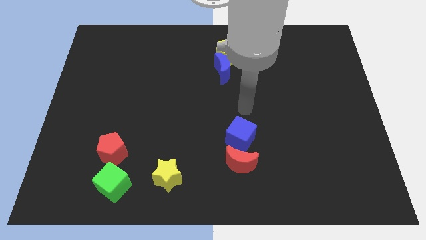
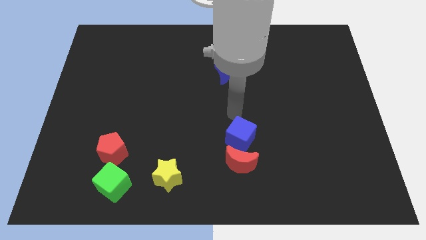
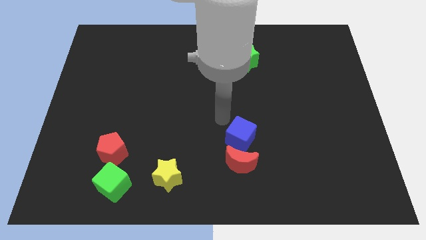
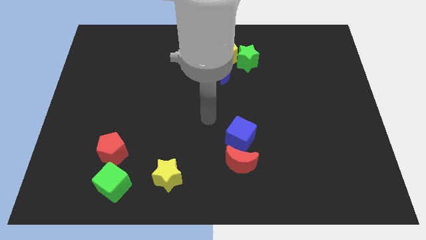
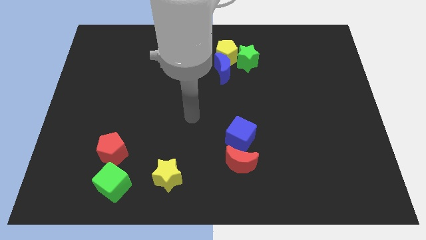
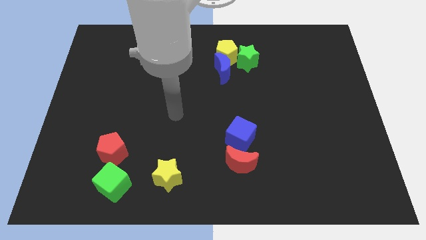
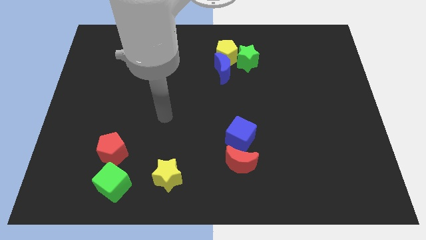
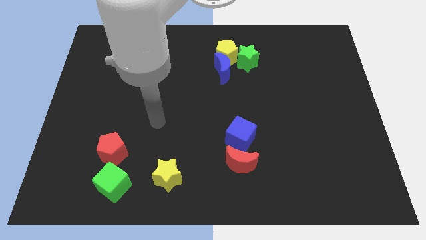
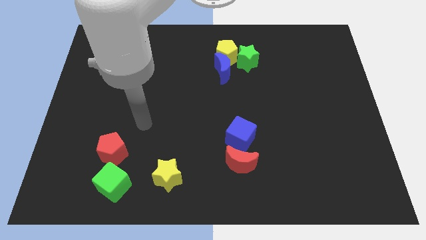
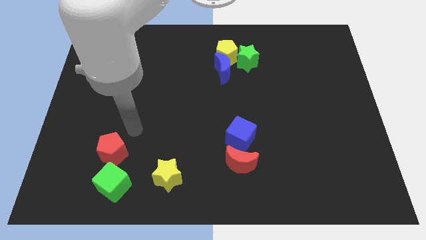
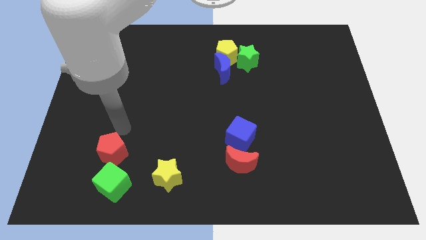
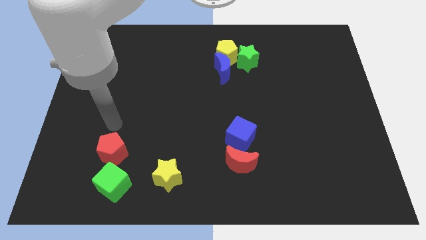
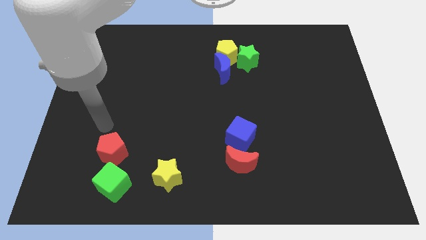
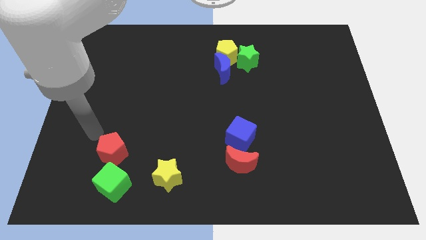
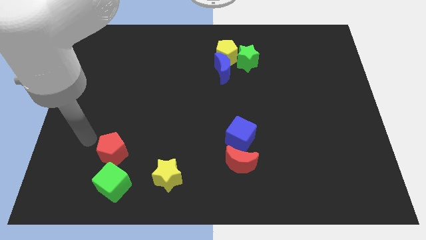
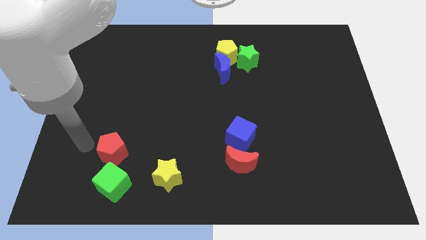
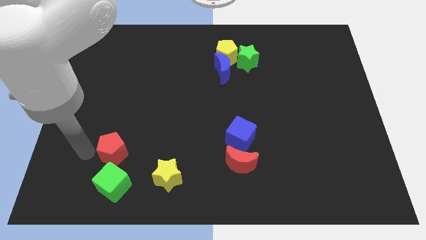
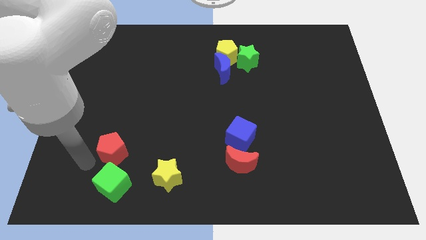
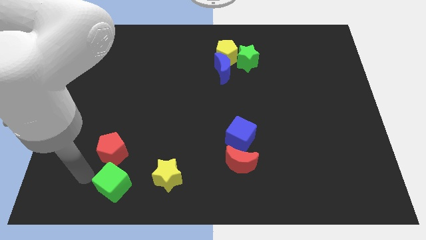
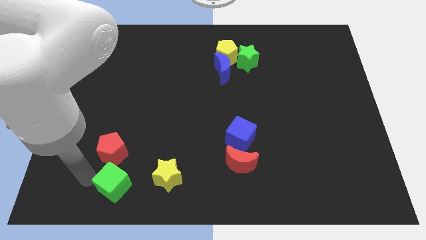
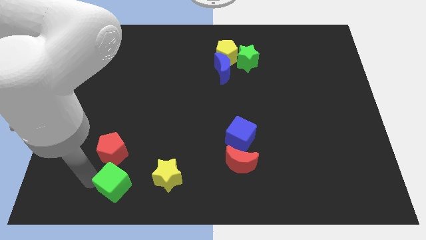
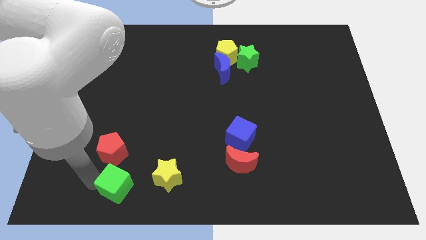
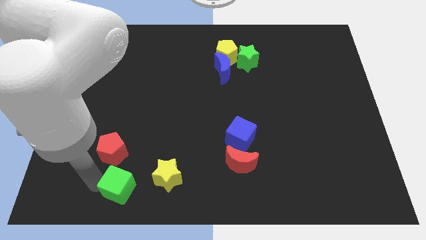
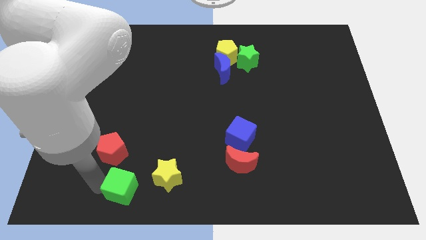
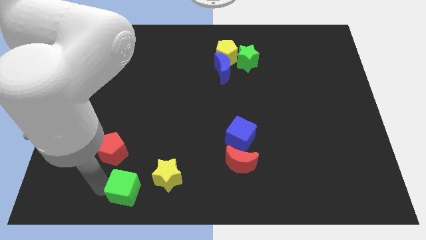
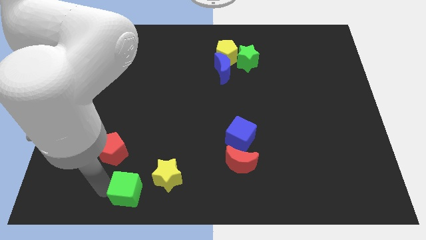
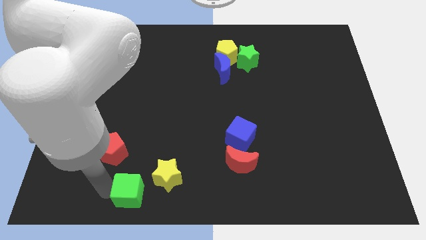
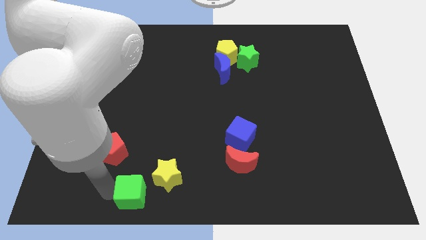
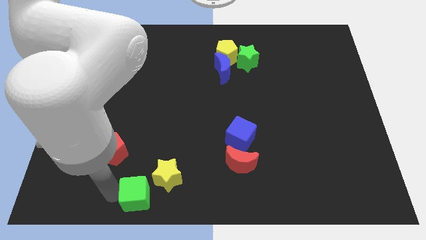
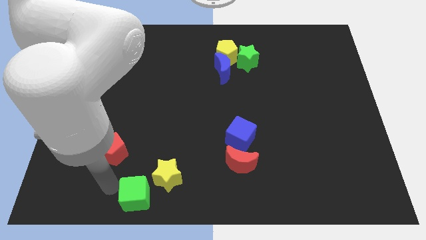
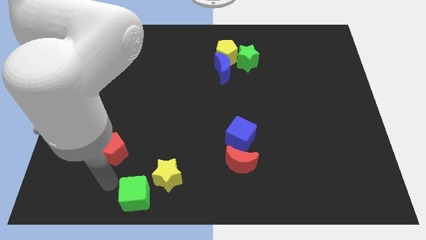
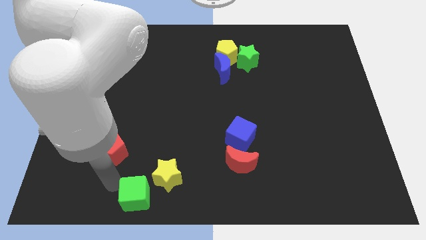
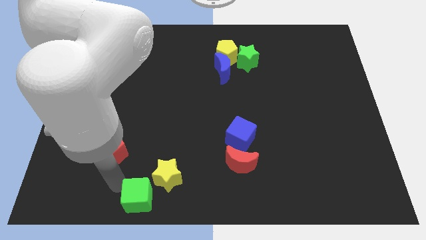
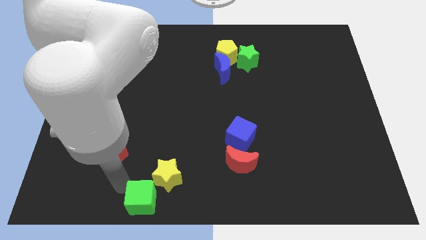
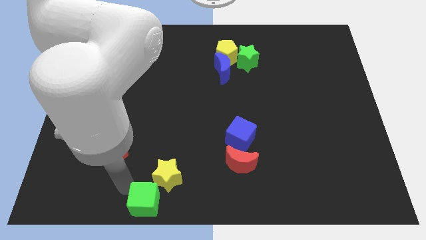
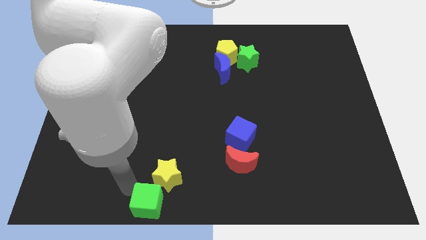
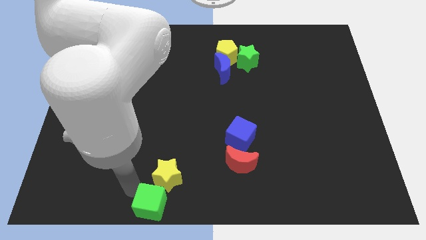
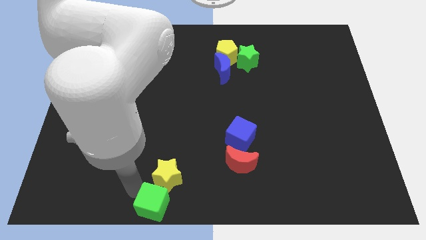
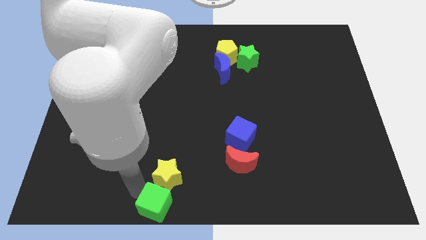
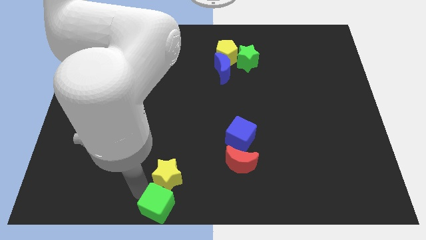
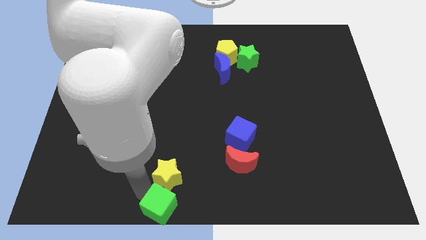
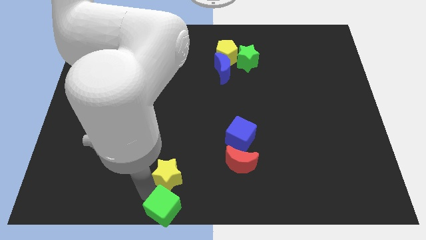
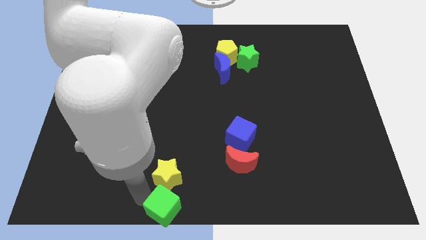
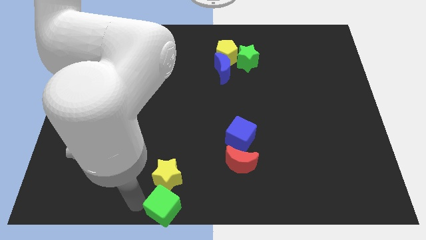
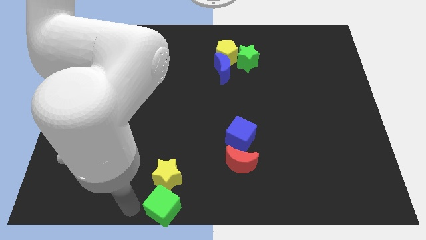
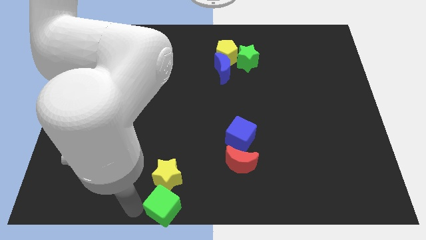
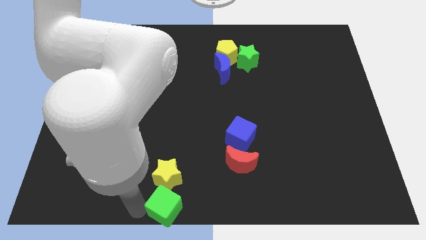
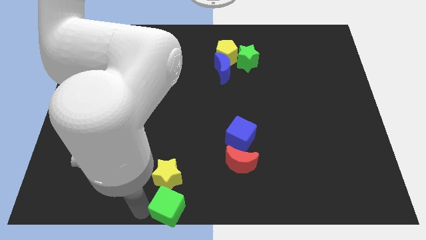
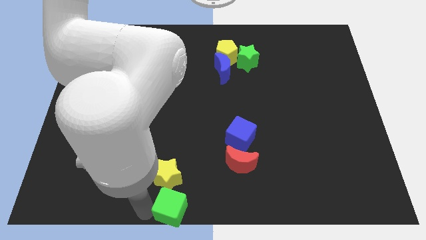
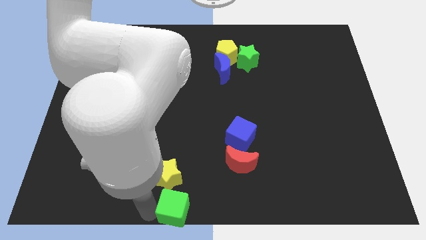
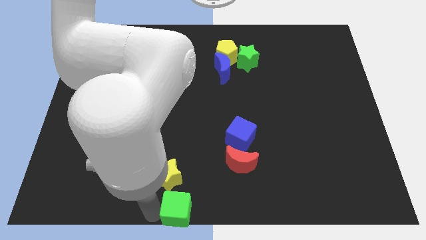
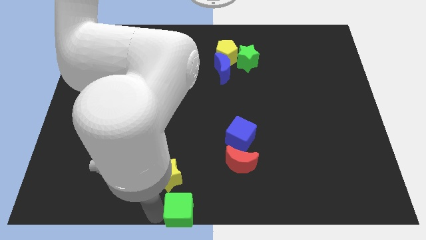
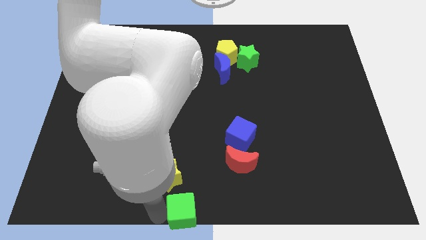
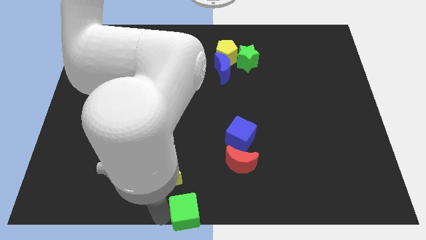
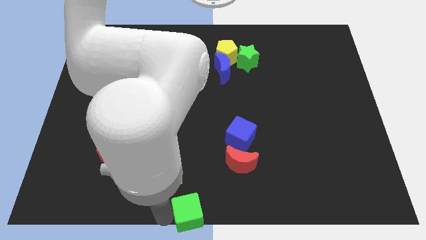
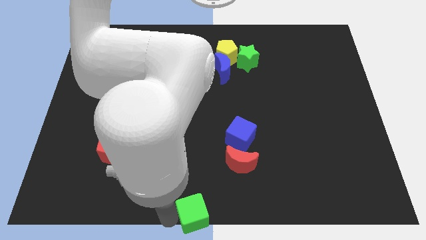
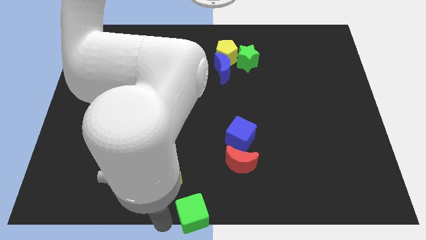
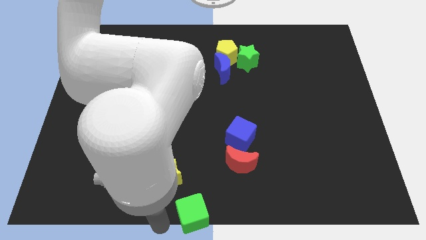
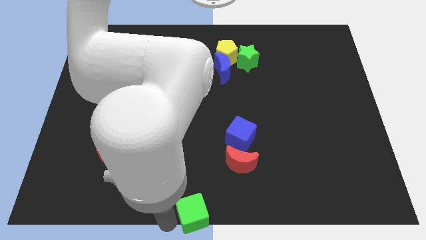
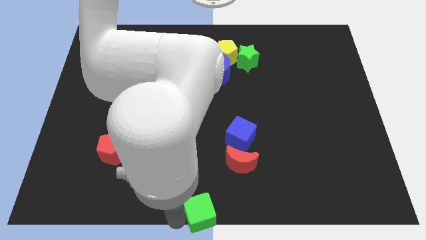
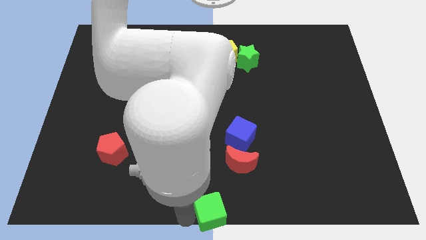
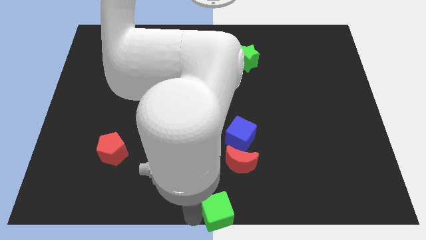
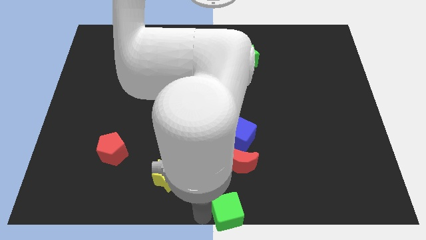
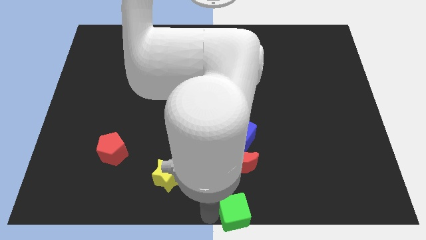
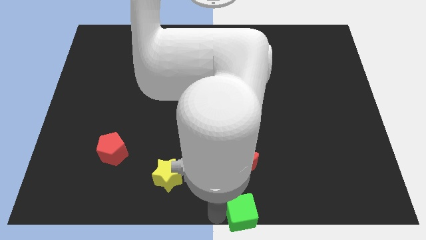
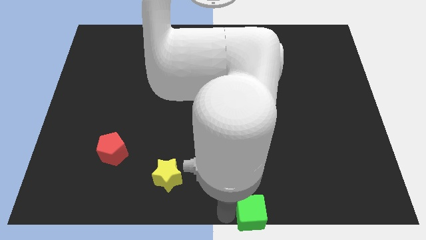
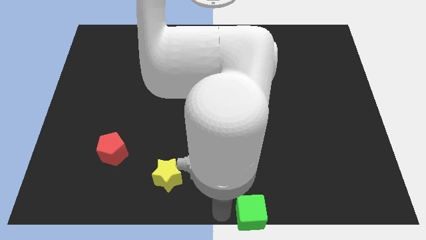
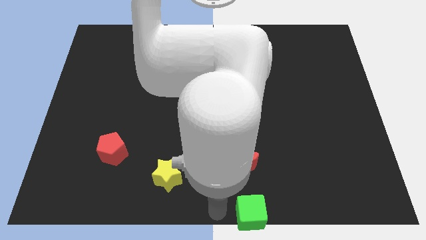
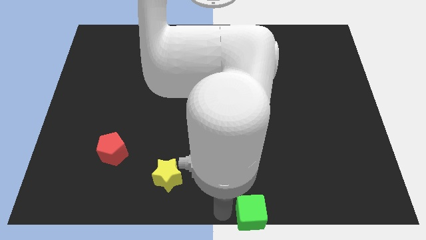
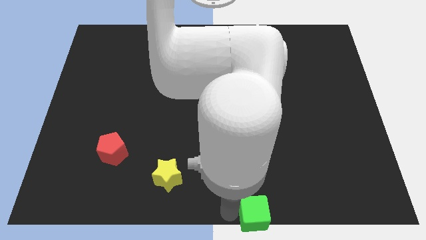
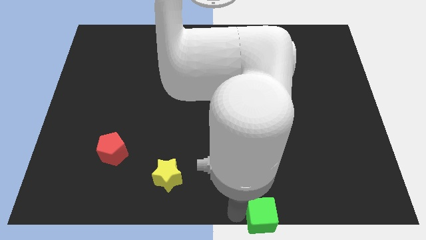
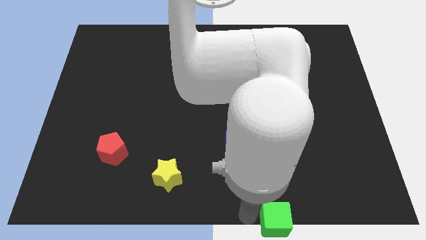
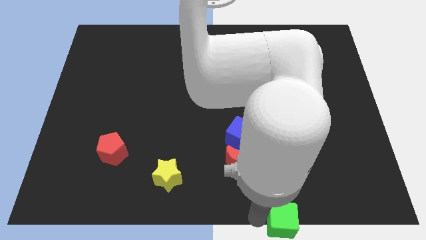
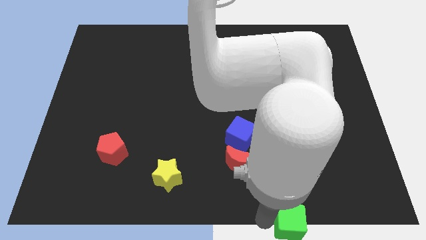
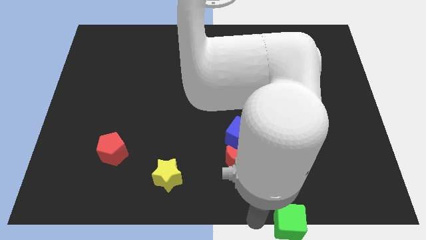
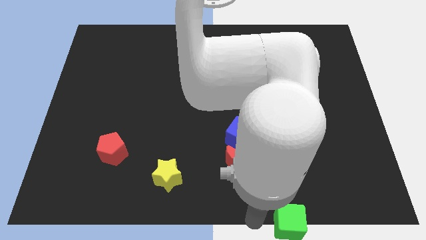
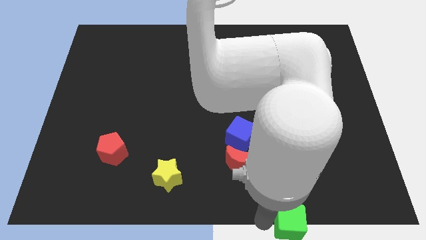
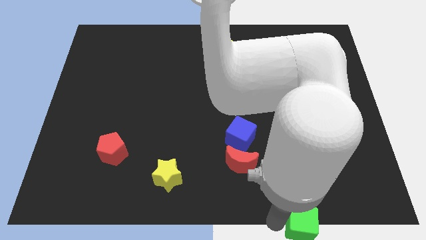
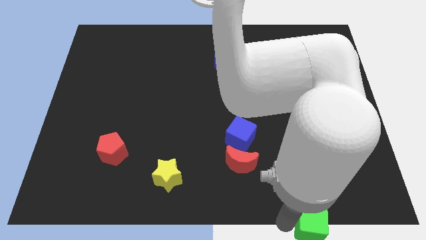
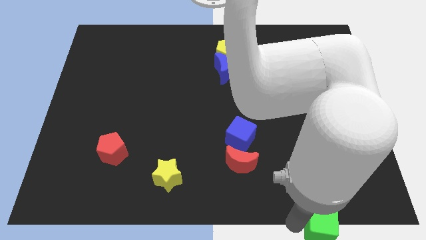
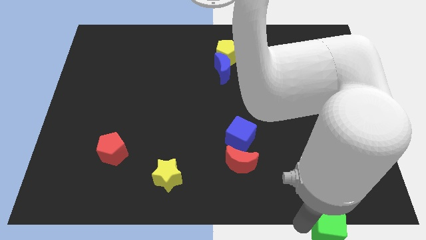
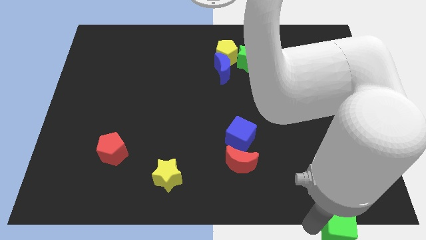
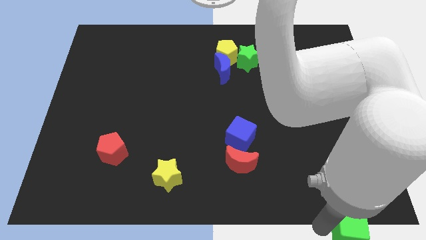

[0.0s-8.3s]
push the green cube to the bottom right corner
